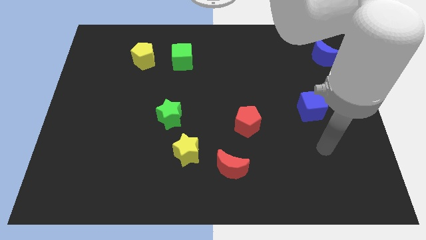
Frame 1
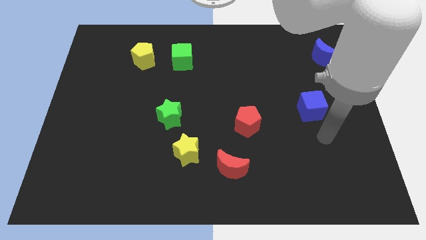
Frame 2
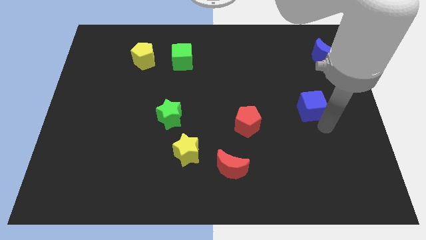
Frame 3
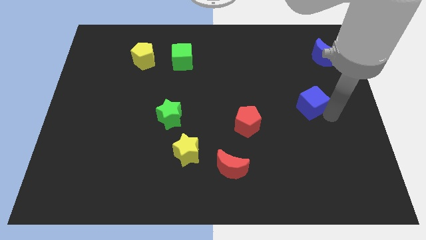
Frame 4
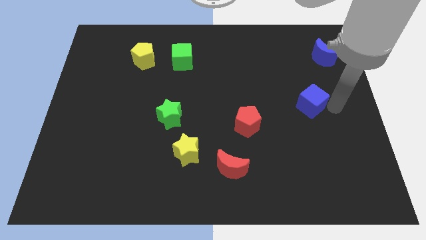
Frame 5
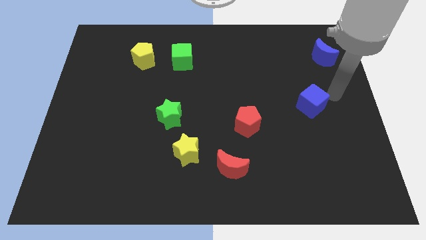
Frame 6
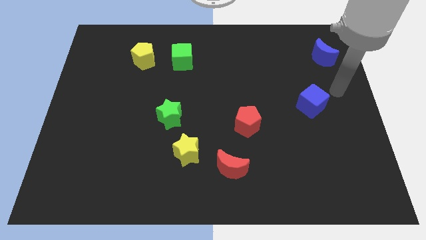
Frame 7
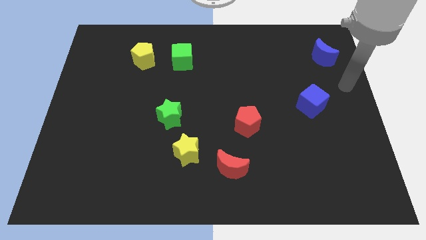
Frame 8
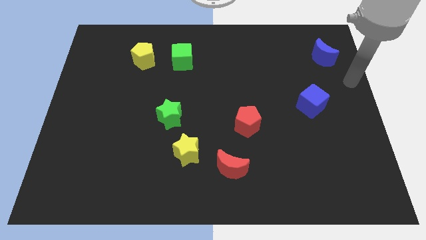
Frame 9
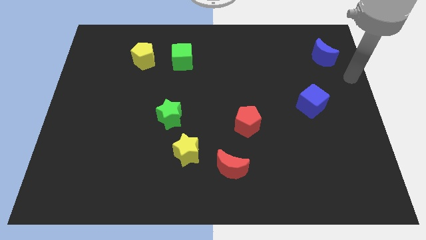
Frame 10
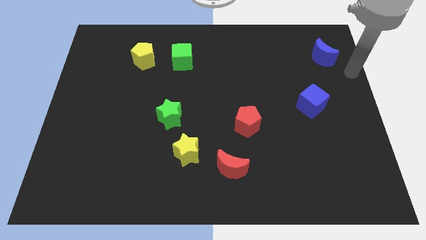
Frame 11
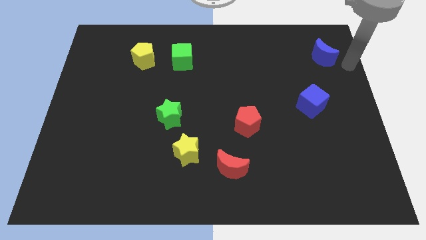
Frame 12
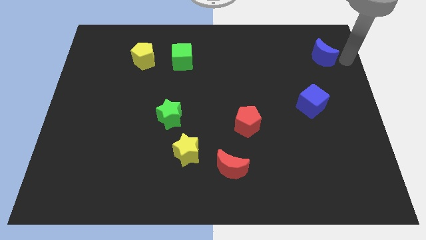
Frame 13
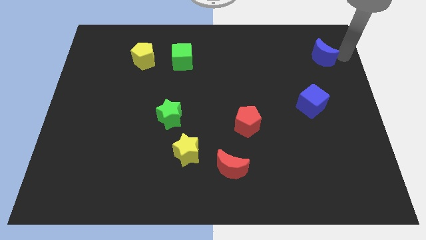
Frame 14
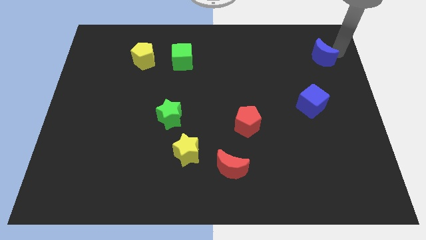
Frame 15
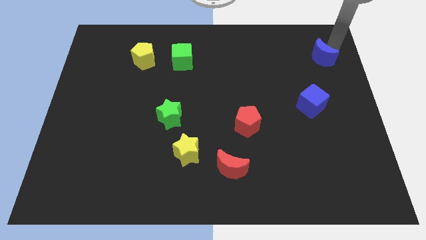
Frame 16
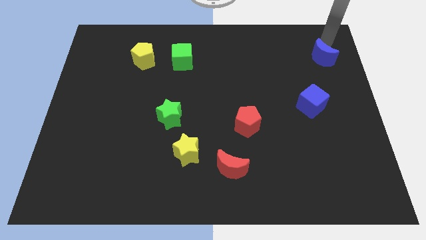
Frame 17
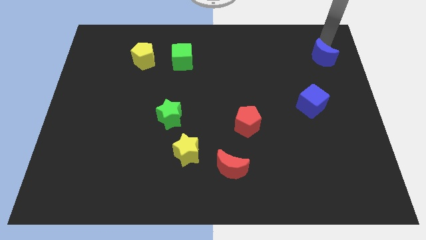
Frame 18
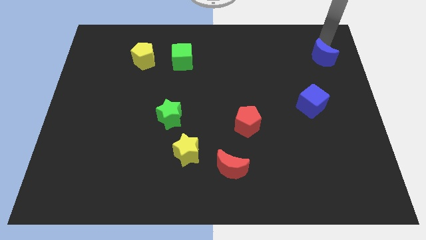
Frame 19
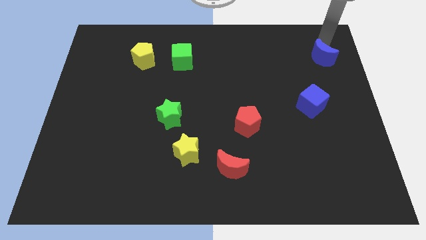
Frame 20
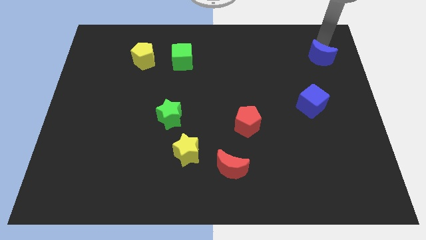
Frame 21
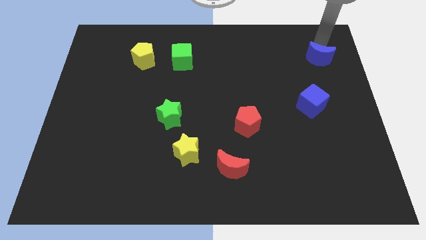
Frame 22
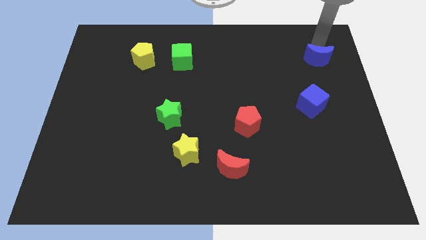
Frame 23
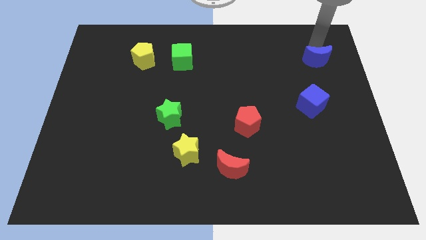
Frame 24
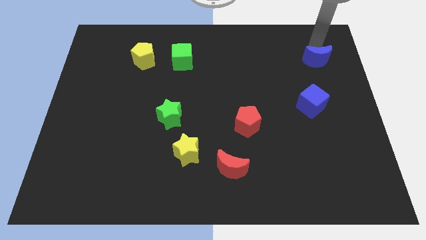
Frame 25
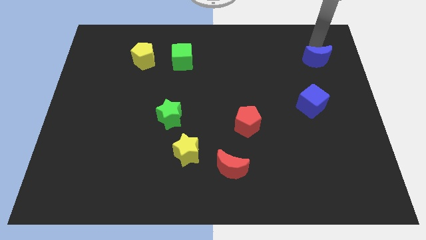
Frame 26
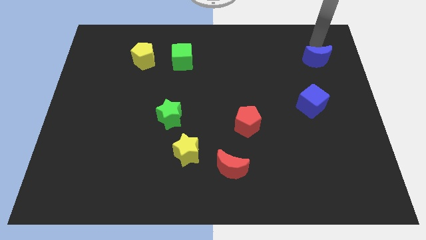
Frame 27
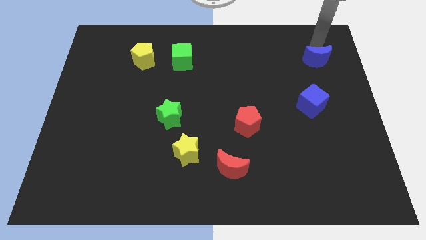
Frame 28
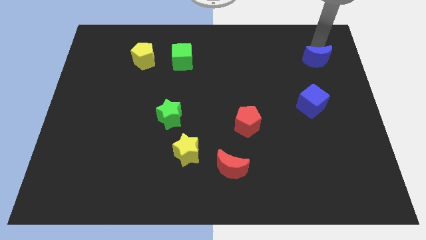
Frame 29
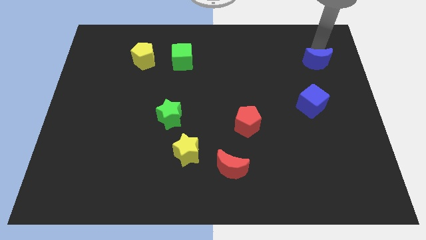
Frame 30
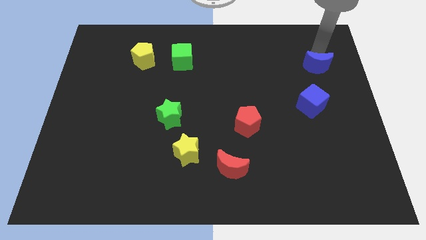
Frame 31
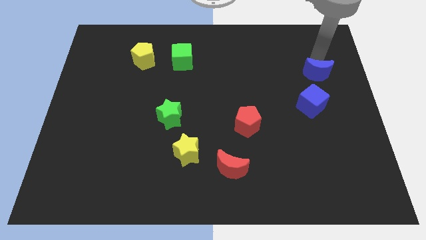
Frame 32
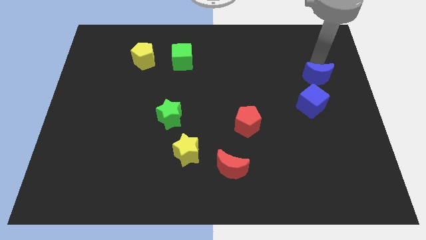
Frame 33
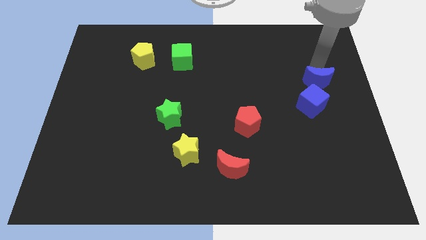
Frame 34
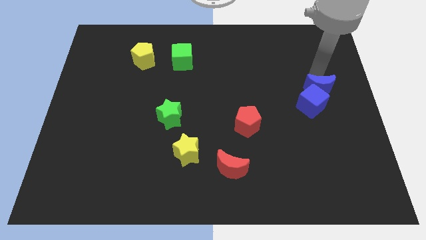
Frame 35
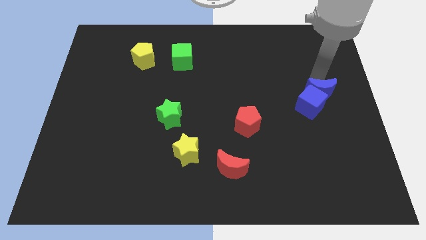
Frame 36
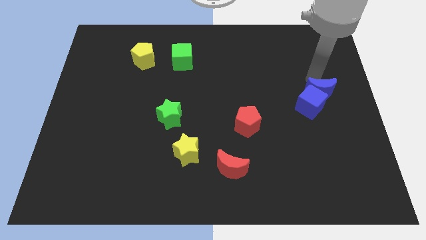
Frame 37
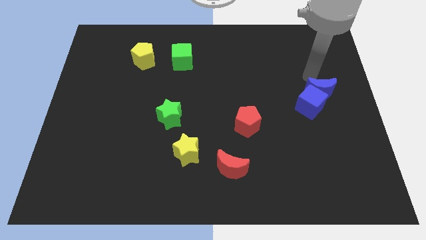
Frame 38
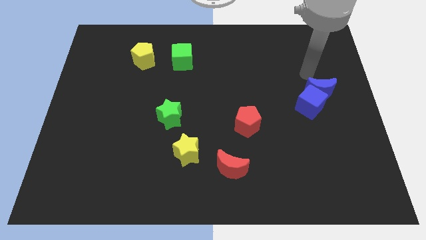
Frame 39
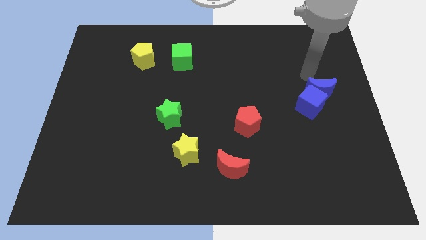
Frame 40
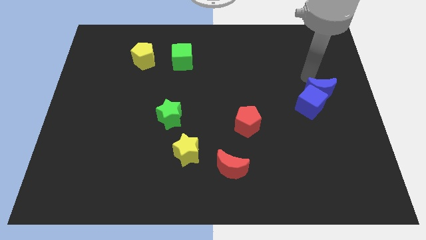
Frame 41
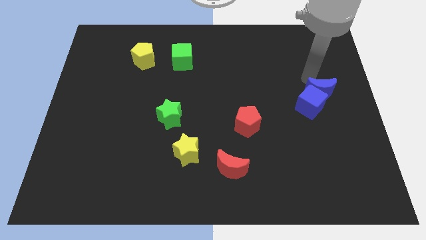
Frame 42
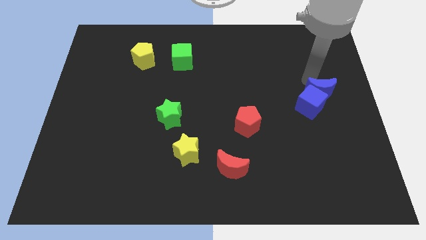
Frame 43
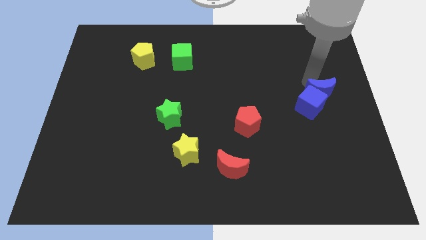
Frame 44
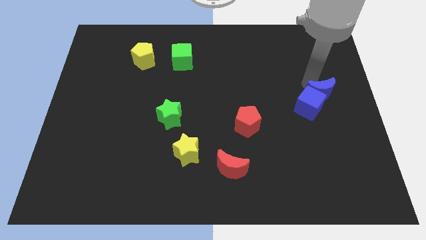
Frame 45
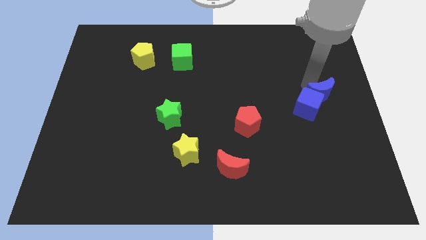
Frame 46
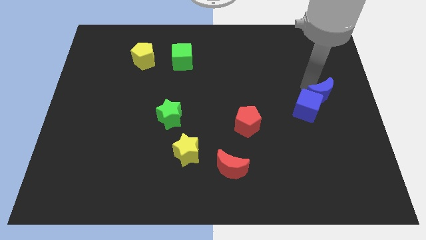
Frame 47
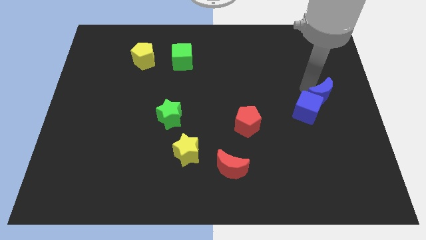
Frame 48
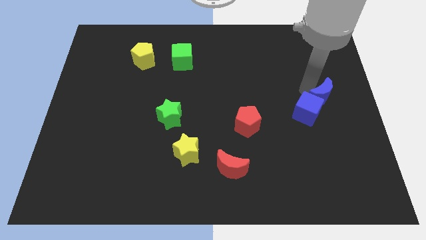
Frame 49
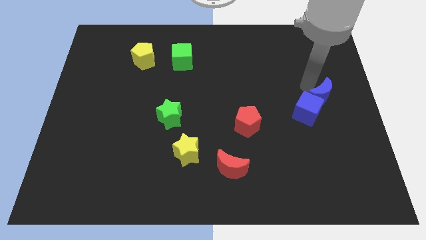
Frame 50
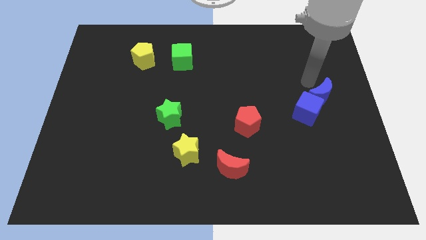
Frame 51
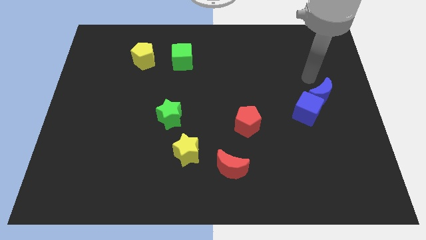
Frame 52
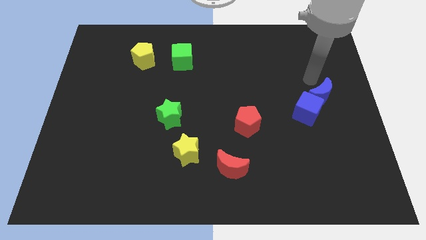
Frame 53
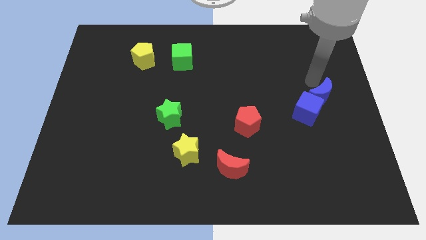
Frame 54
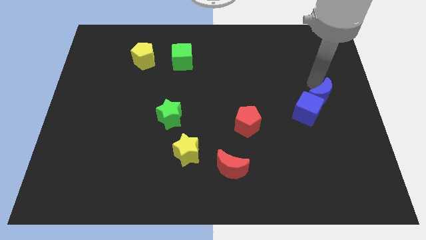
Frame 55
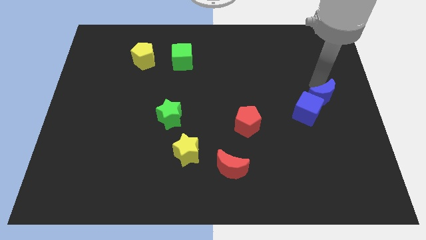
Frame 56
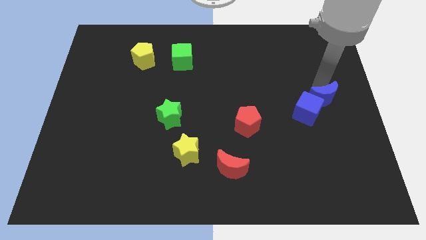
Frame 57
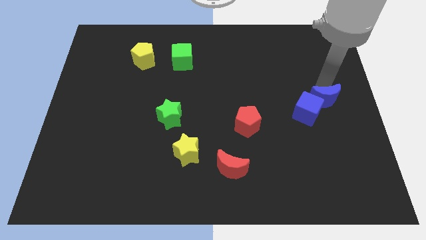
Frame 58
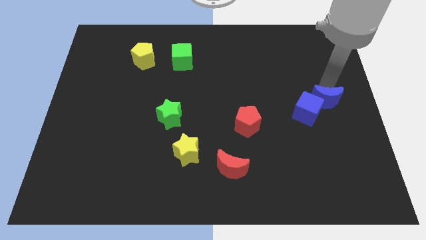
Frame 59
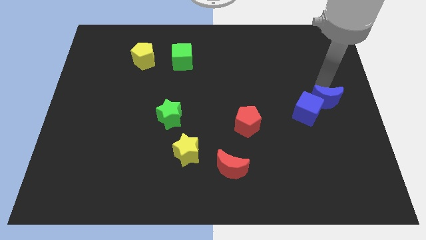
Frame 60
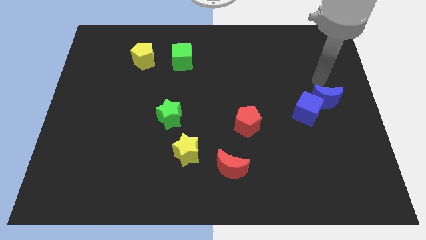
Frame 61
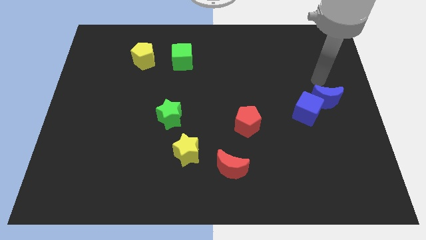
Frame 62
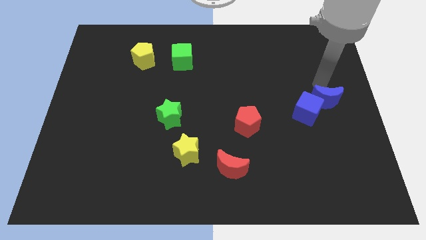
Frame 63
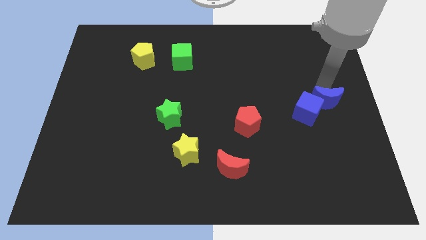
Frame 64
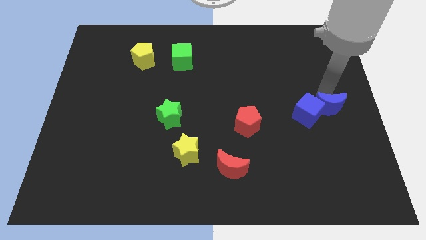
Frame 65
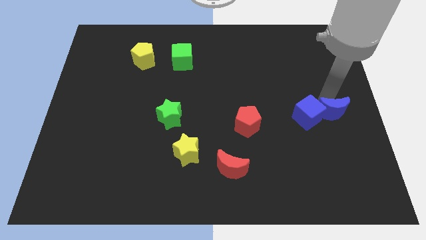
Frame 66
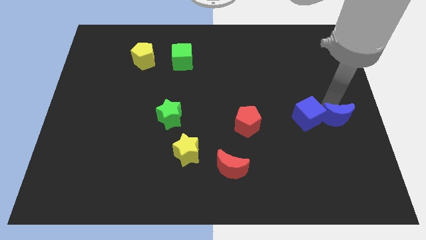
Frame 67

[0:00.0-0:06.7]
move the blue moon downwards

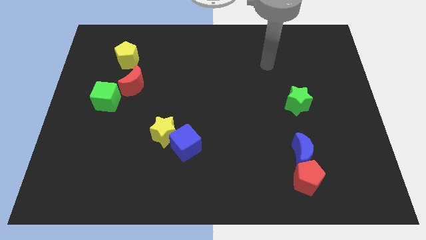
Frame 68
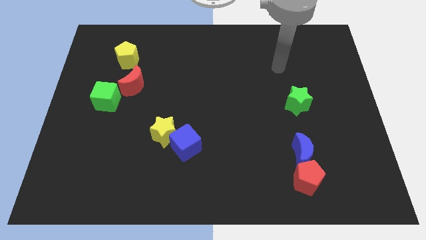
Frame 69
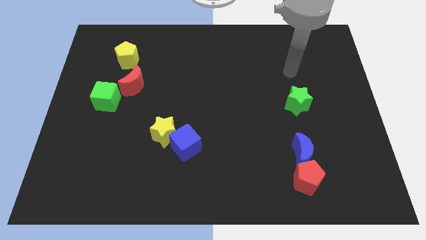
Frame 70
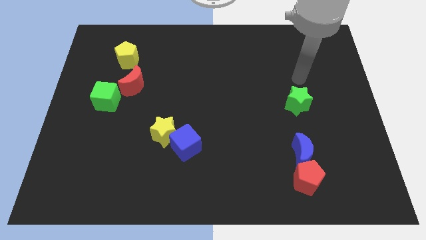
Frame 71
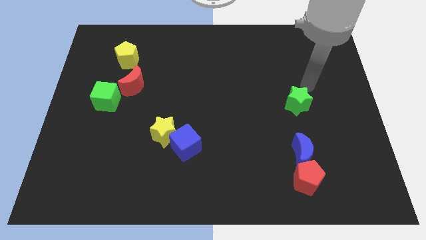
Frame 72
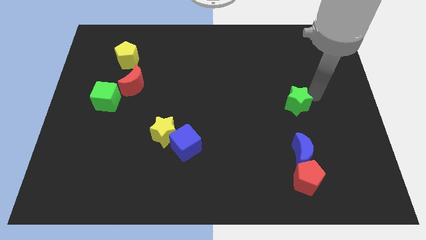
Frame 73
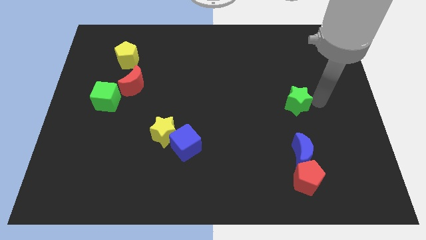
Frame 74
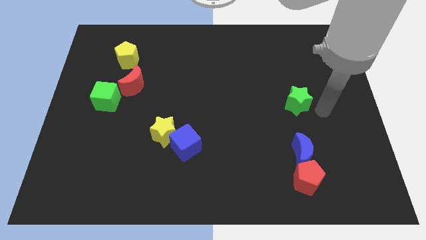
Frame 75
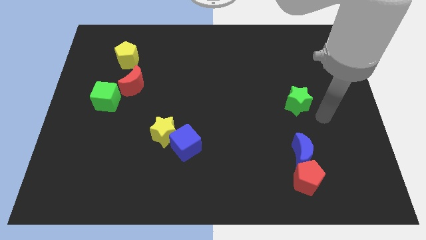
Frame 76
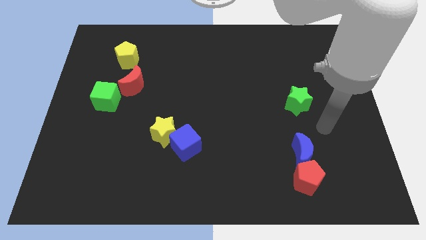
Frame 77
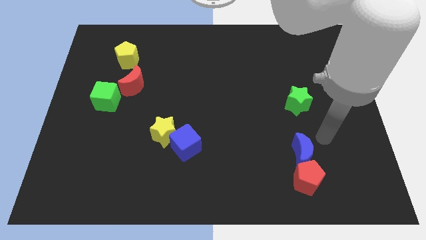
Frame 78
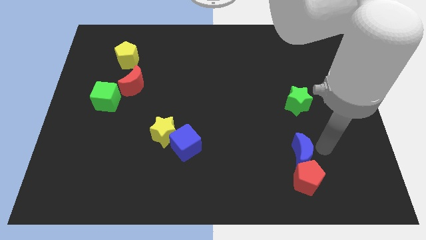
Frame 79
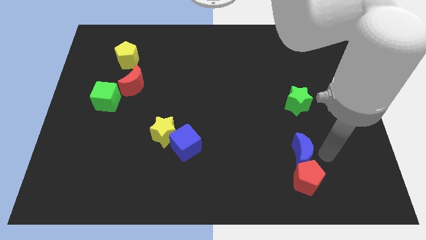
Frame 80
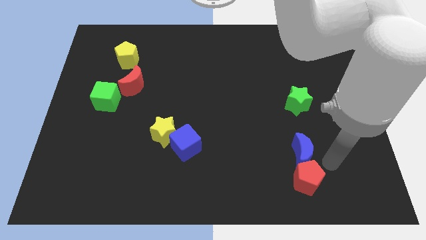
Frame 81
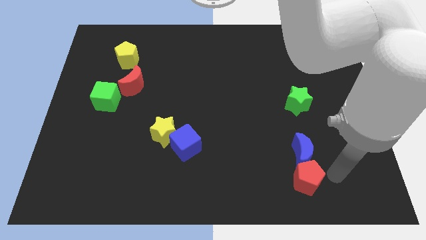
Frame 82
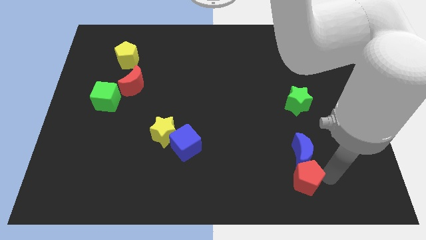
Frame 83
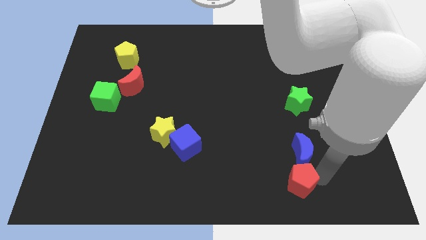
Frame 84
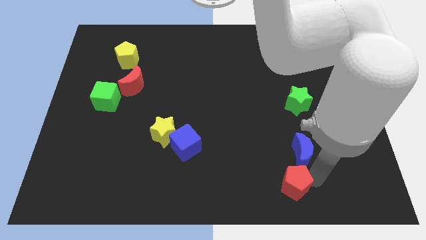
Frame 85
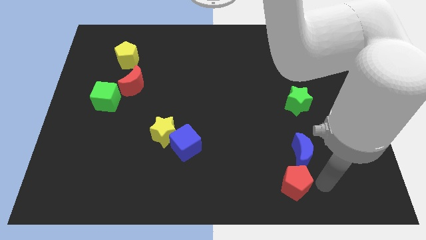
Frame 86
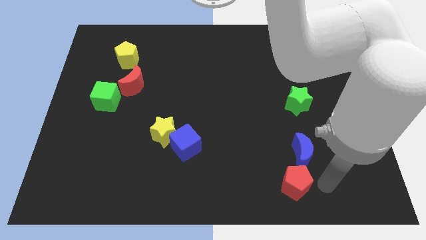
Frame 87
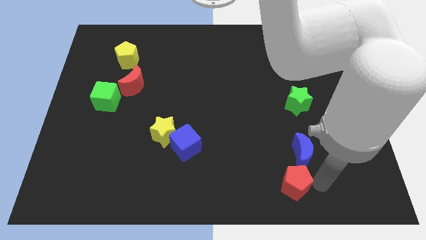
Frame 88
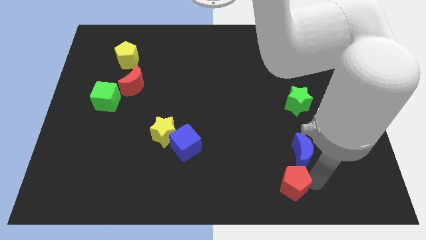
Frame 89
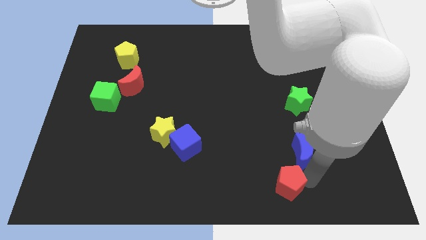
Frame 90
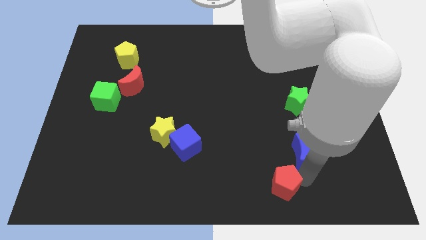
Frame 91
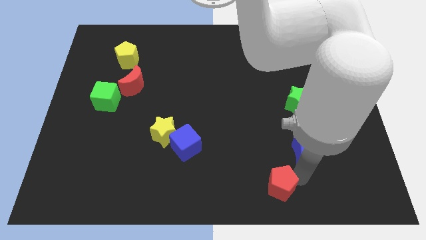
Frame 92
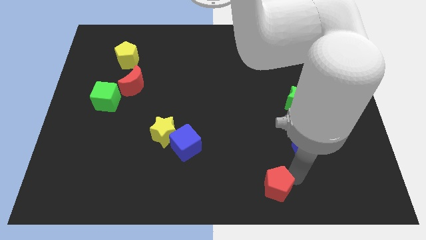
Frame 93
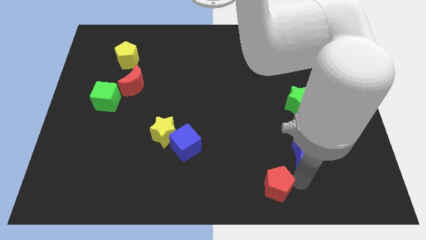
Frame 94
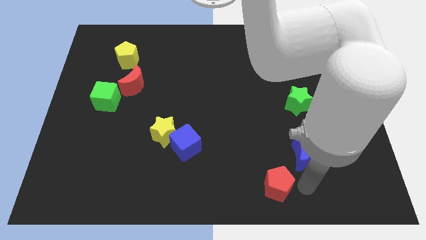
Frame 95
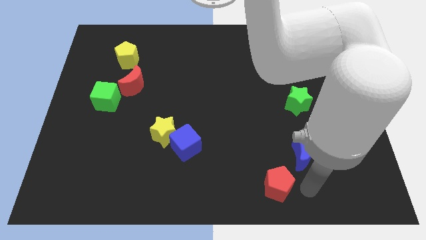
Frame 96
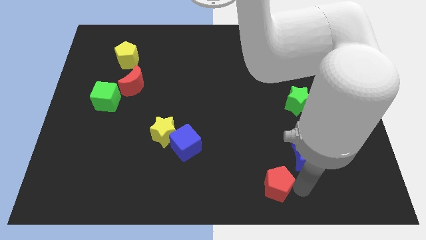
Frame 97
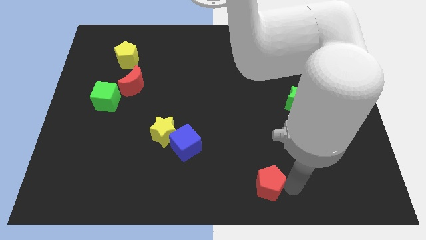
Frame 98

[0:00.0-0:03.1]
move the red pentagon a little bit left
